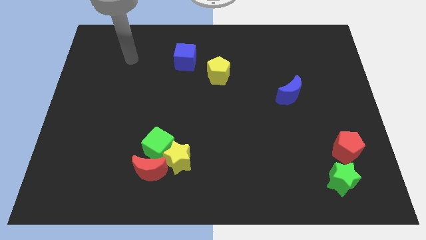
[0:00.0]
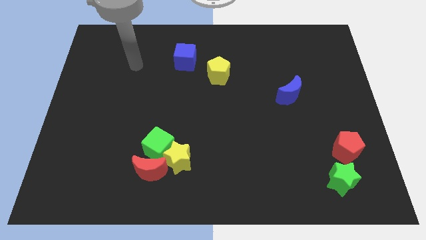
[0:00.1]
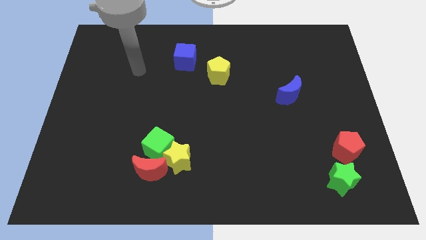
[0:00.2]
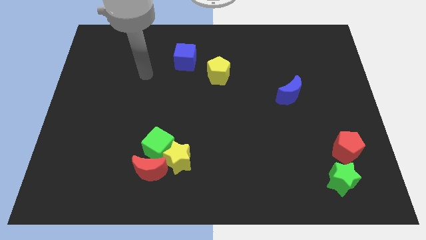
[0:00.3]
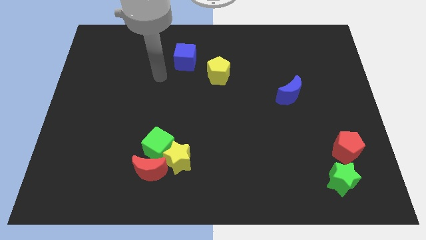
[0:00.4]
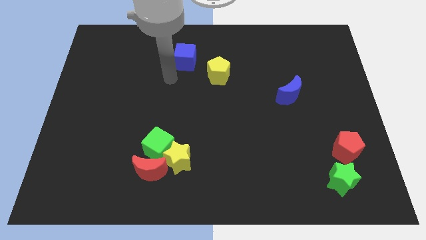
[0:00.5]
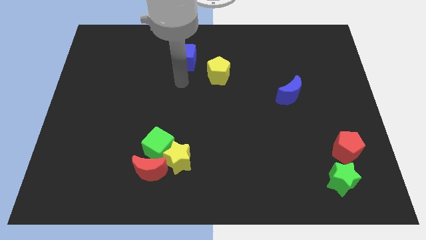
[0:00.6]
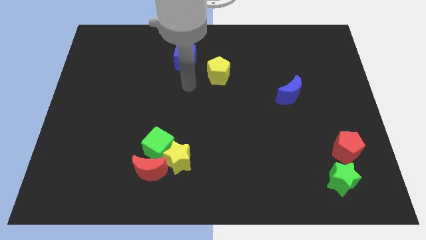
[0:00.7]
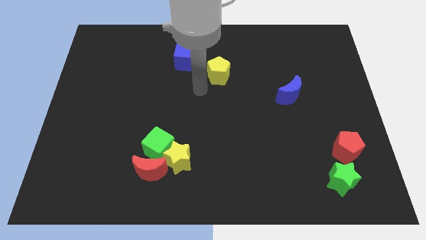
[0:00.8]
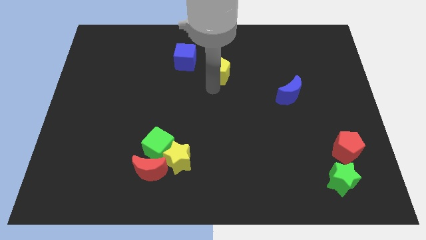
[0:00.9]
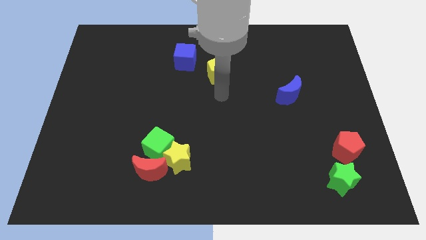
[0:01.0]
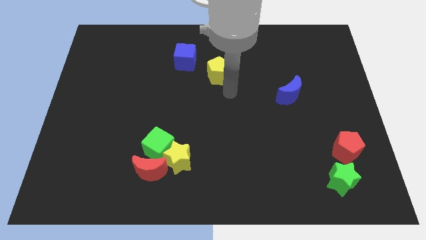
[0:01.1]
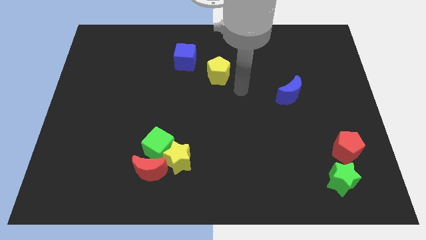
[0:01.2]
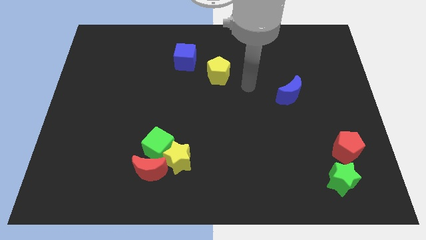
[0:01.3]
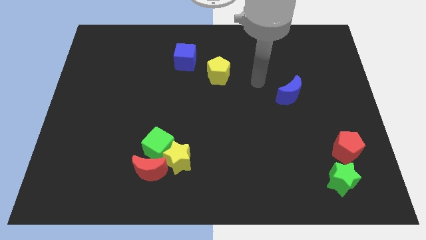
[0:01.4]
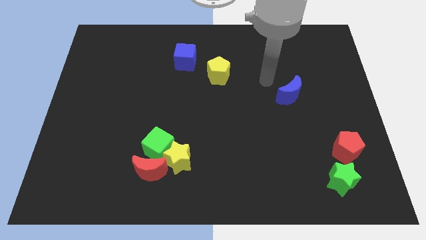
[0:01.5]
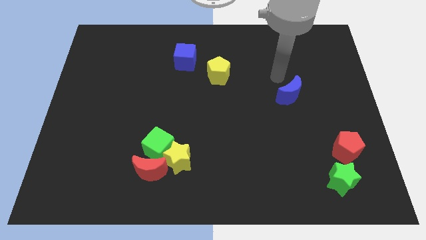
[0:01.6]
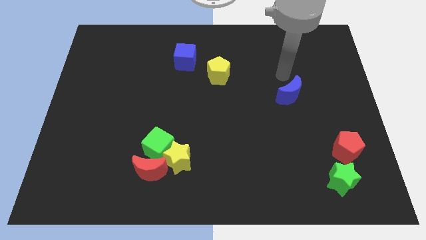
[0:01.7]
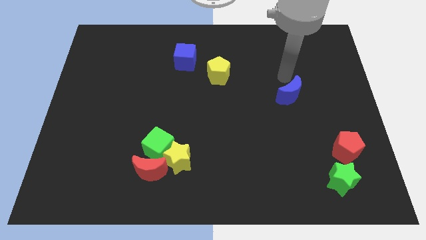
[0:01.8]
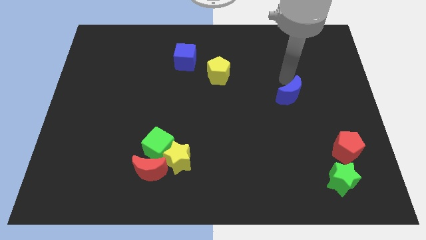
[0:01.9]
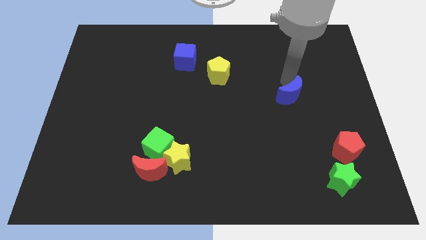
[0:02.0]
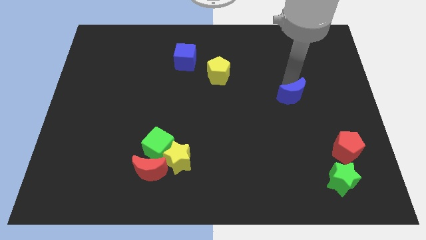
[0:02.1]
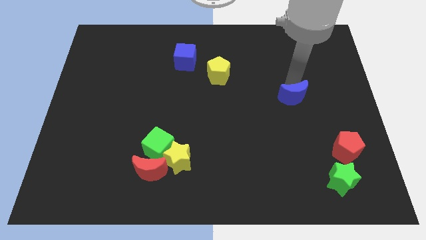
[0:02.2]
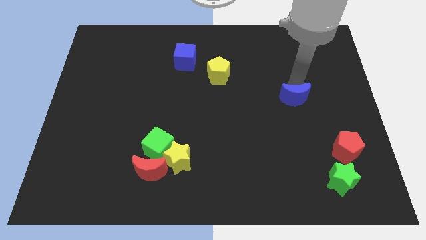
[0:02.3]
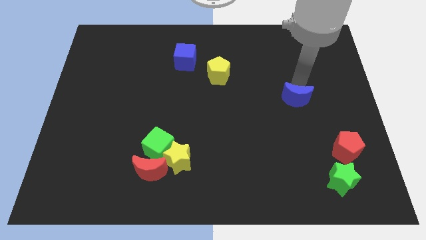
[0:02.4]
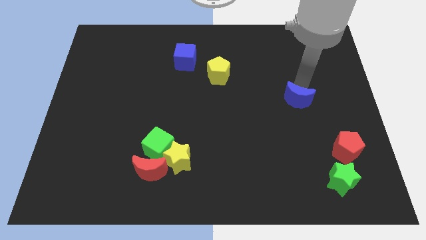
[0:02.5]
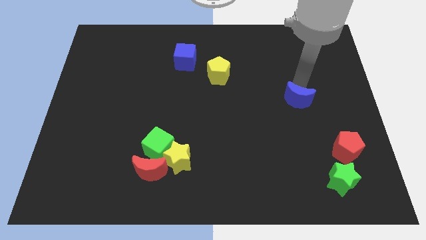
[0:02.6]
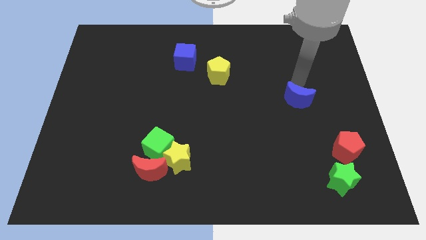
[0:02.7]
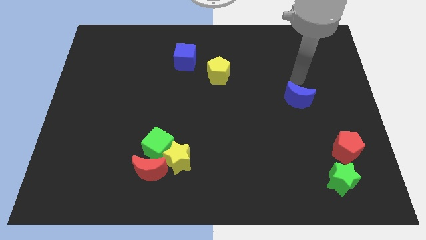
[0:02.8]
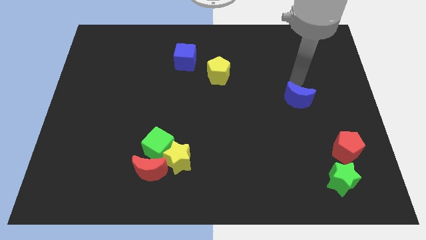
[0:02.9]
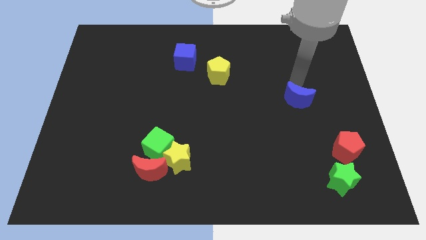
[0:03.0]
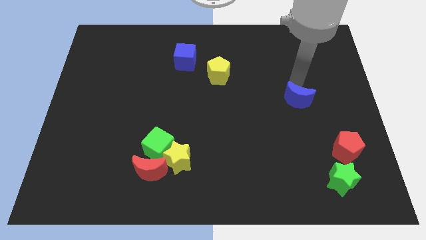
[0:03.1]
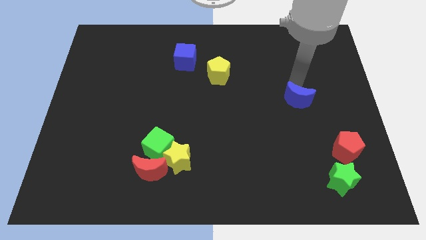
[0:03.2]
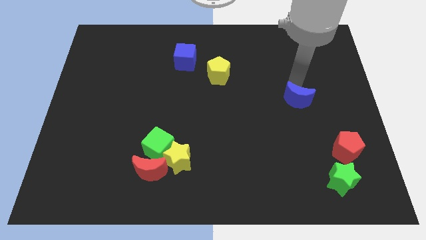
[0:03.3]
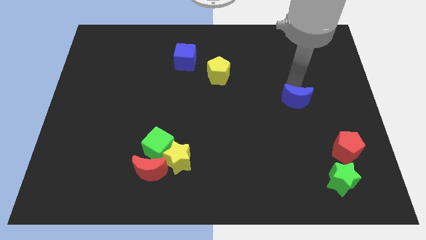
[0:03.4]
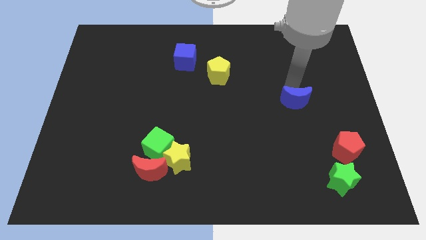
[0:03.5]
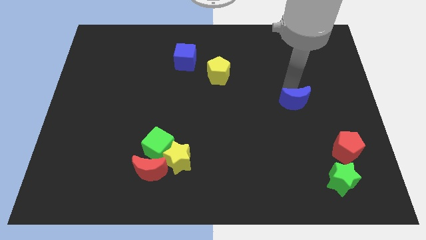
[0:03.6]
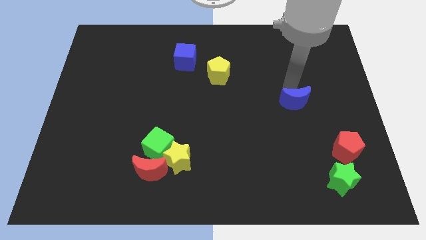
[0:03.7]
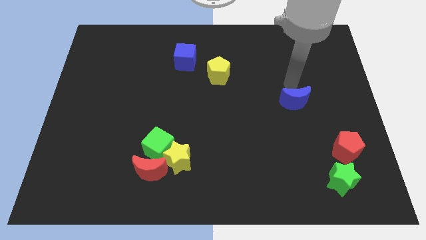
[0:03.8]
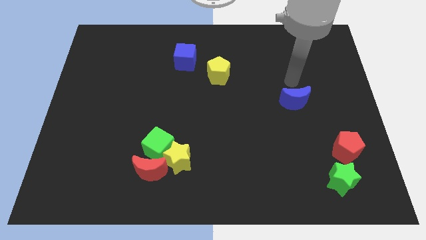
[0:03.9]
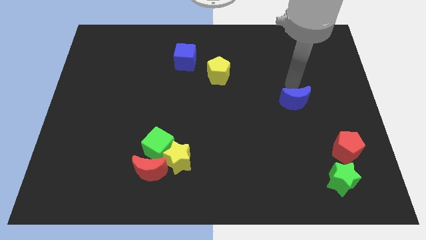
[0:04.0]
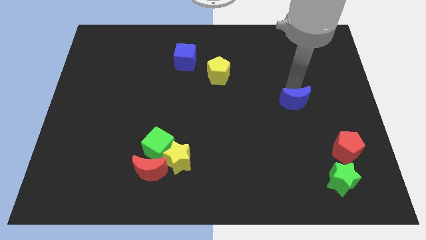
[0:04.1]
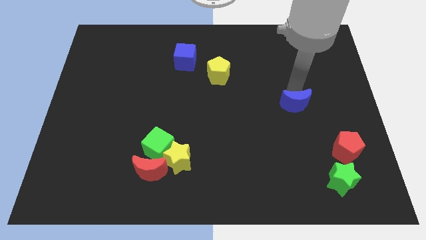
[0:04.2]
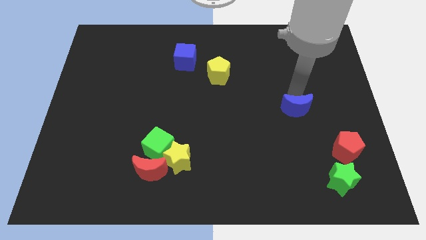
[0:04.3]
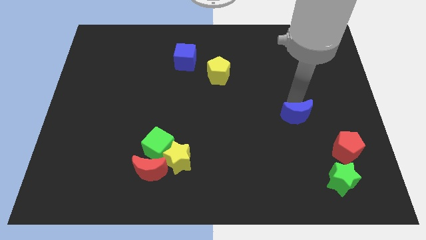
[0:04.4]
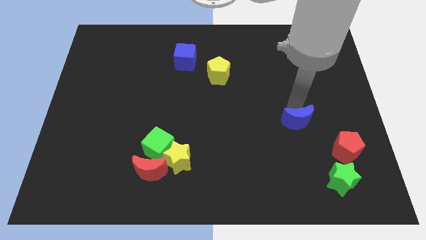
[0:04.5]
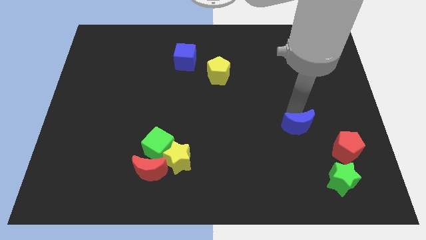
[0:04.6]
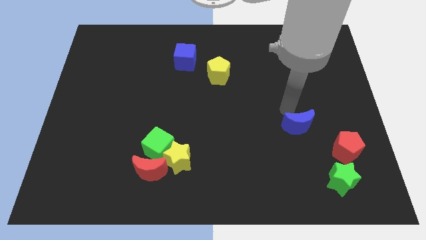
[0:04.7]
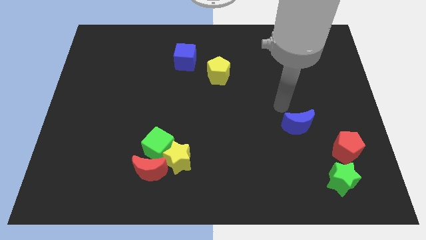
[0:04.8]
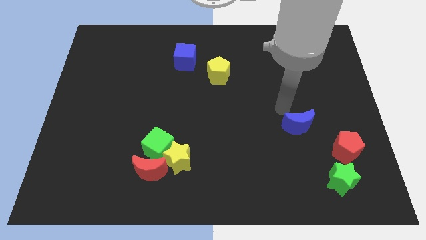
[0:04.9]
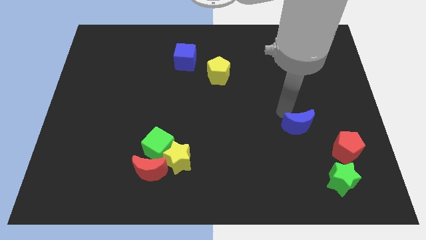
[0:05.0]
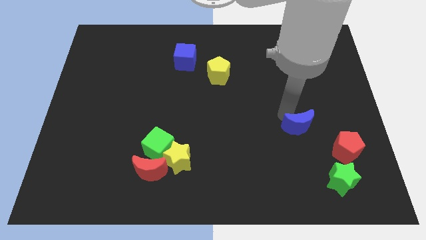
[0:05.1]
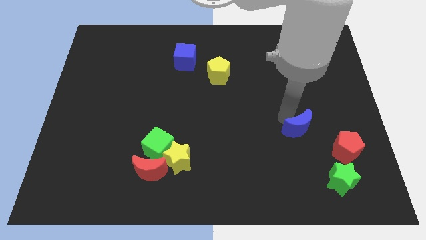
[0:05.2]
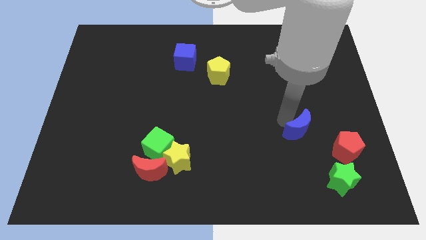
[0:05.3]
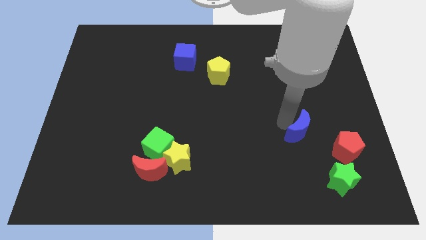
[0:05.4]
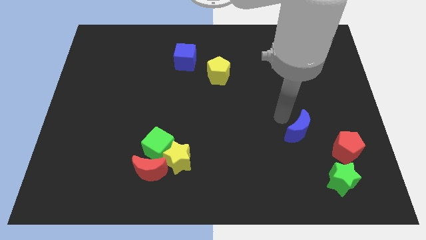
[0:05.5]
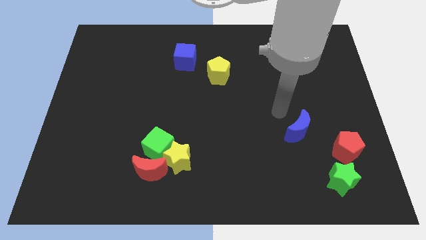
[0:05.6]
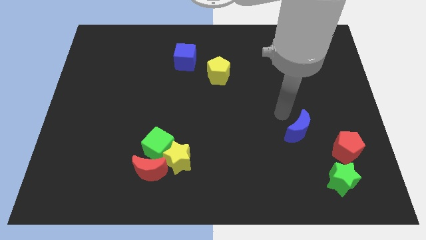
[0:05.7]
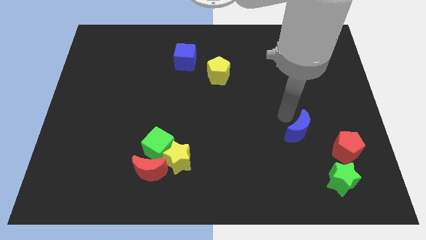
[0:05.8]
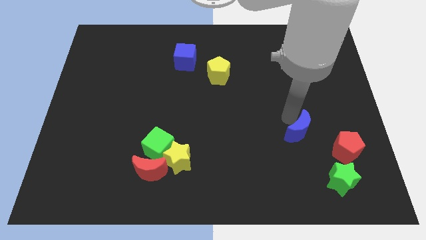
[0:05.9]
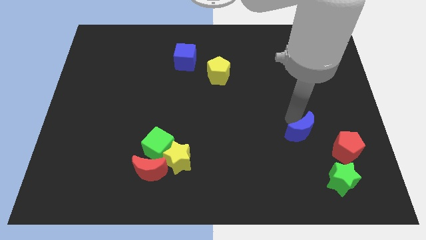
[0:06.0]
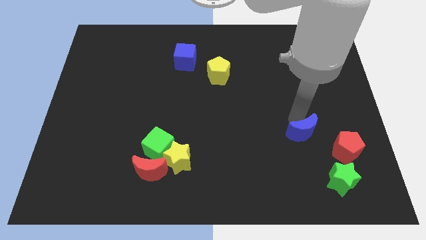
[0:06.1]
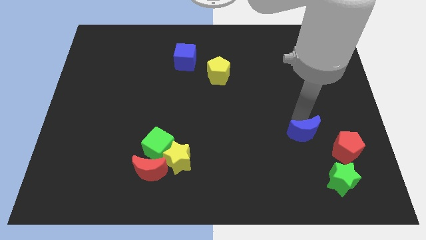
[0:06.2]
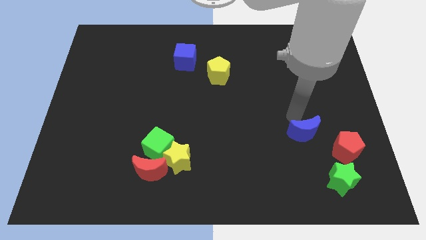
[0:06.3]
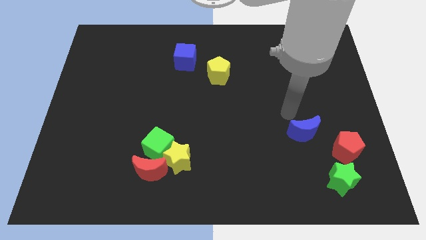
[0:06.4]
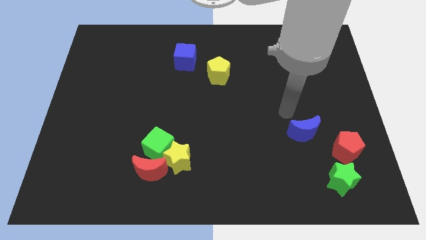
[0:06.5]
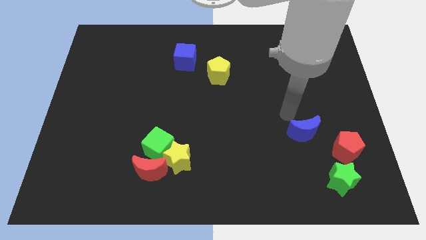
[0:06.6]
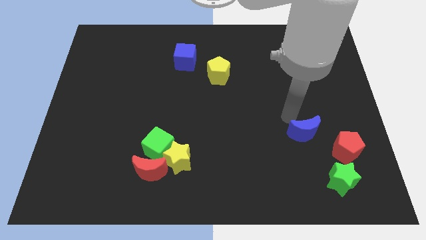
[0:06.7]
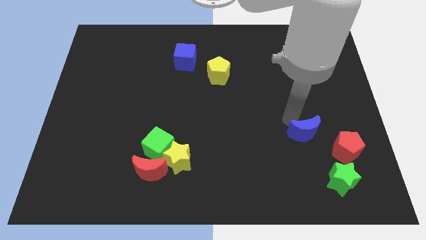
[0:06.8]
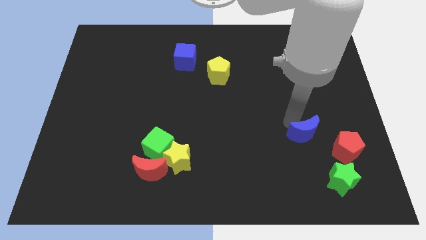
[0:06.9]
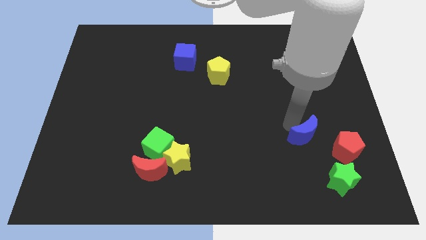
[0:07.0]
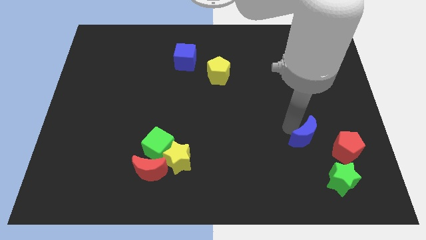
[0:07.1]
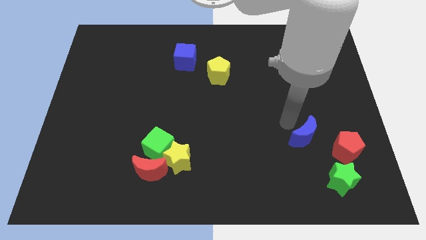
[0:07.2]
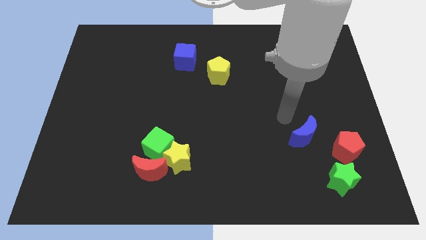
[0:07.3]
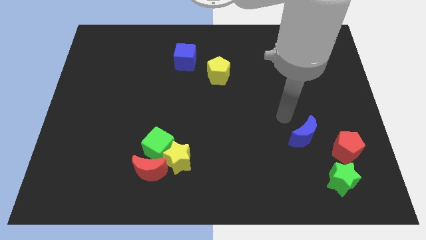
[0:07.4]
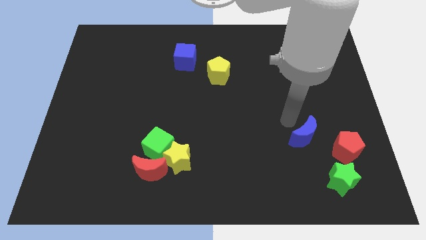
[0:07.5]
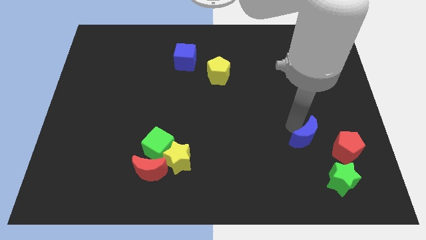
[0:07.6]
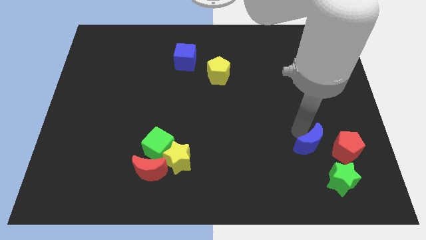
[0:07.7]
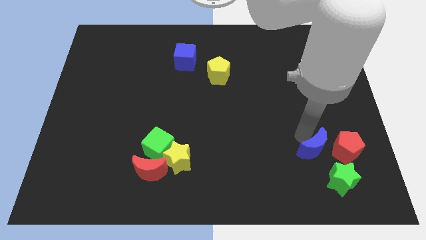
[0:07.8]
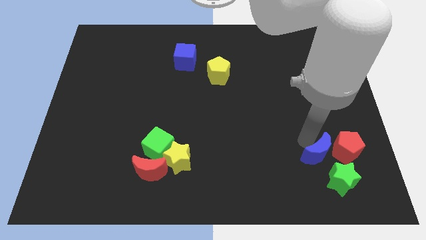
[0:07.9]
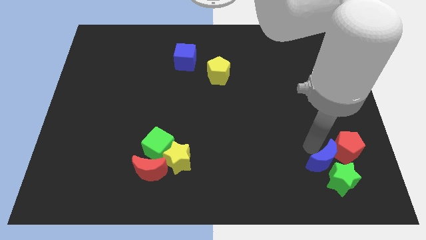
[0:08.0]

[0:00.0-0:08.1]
slide the blue moon close to the green star
